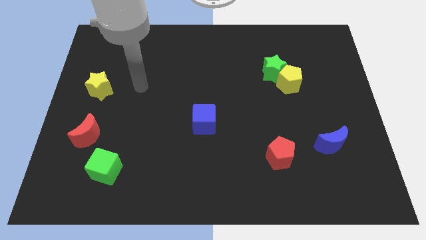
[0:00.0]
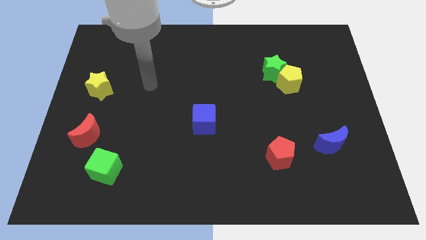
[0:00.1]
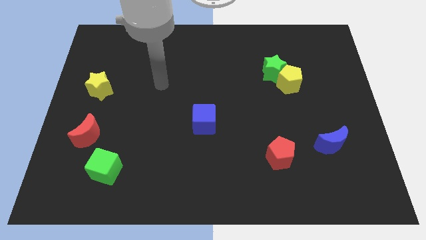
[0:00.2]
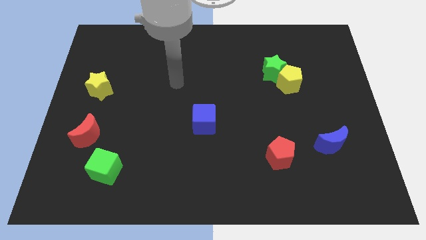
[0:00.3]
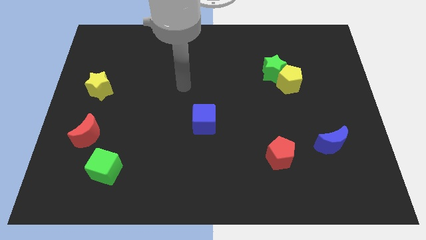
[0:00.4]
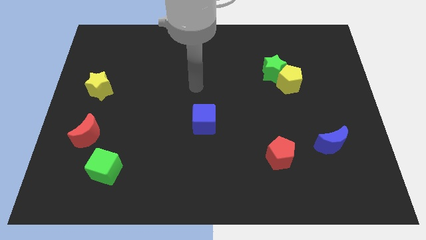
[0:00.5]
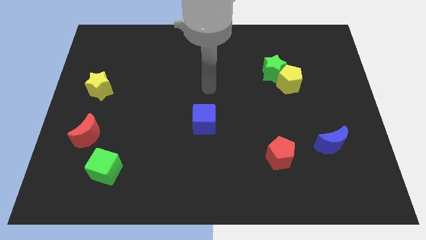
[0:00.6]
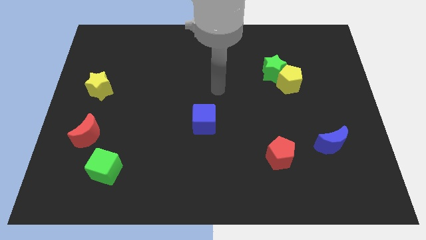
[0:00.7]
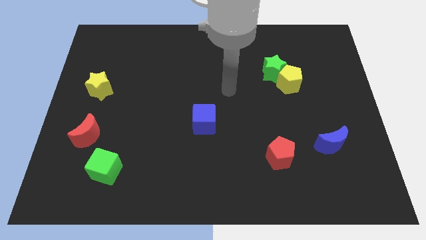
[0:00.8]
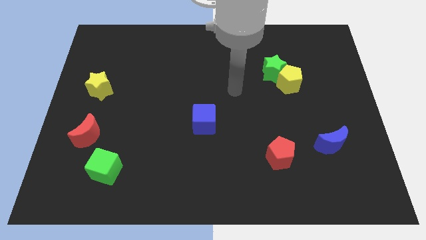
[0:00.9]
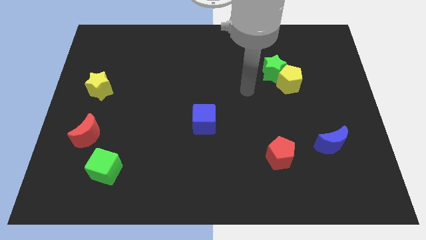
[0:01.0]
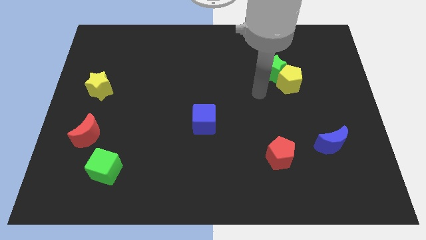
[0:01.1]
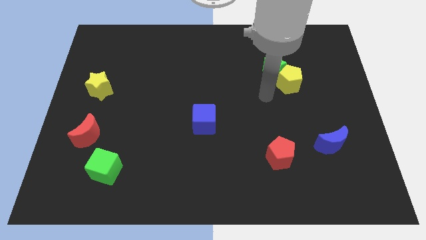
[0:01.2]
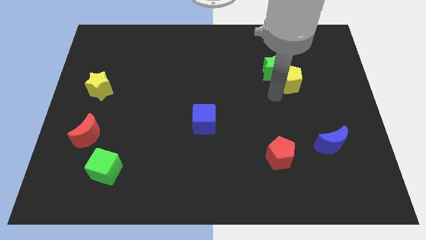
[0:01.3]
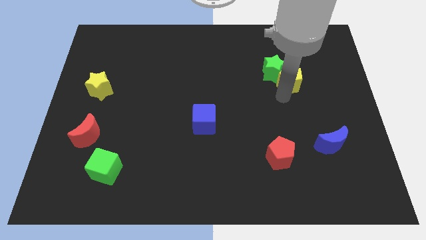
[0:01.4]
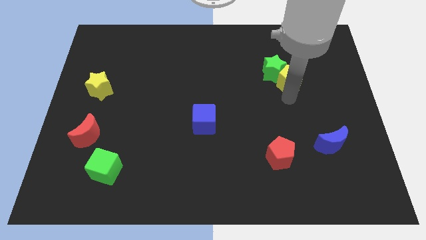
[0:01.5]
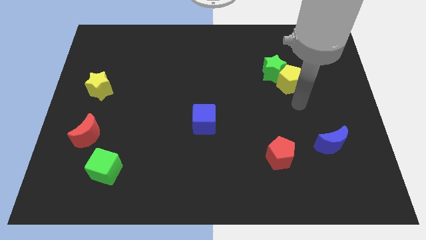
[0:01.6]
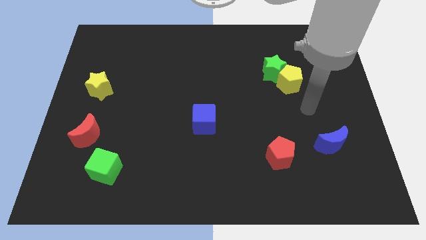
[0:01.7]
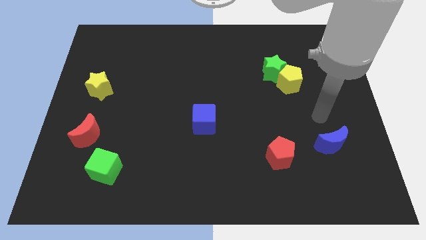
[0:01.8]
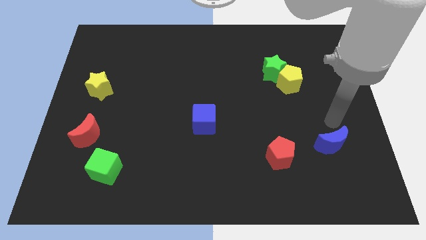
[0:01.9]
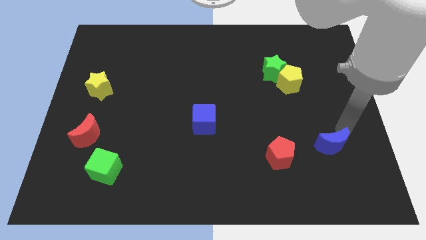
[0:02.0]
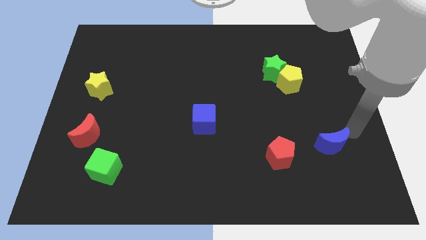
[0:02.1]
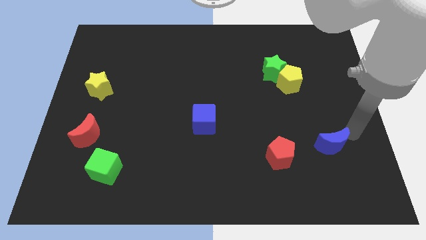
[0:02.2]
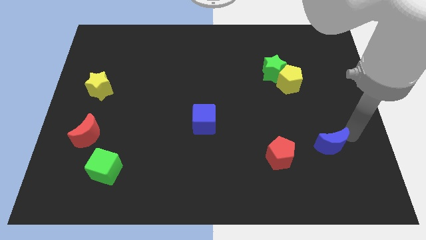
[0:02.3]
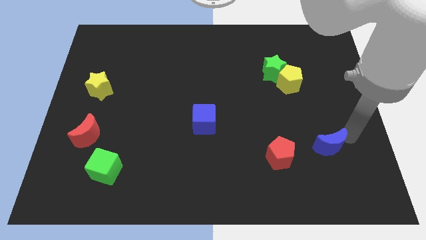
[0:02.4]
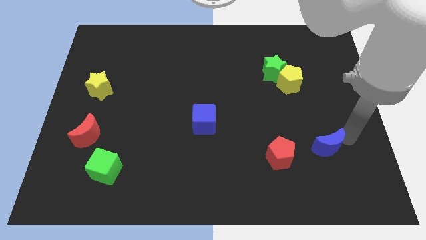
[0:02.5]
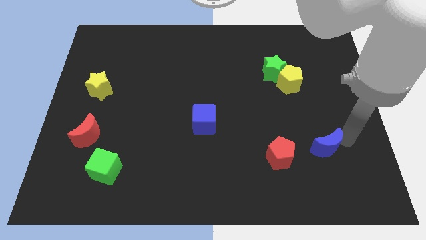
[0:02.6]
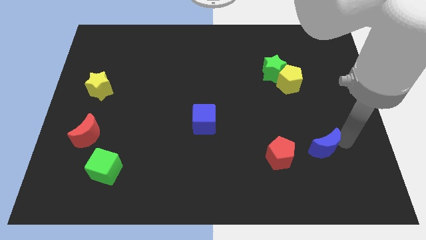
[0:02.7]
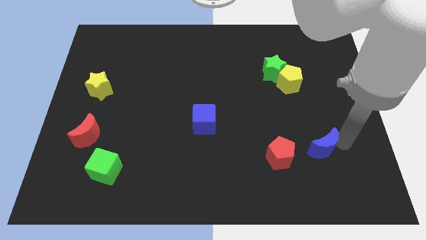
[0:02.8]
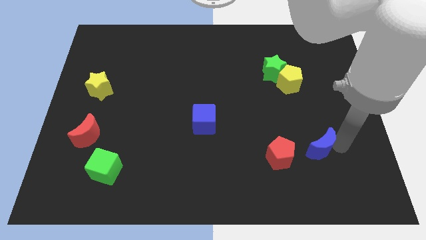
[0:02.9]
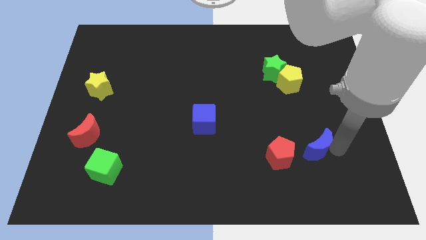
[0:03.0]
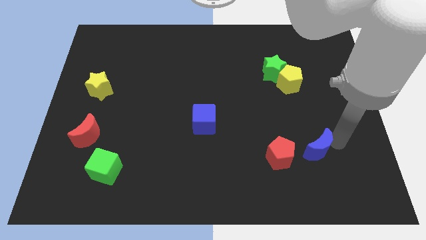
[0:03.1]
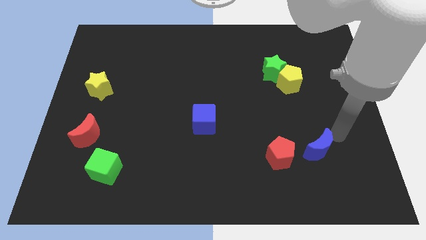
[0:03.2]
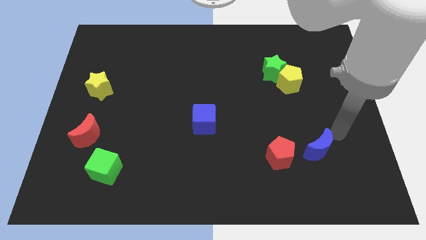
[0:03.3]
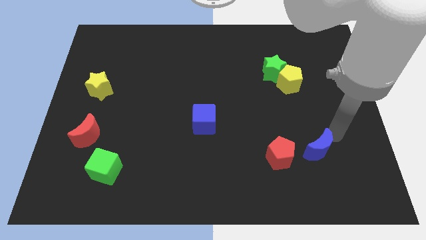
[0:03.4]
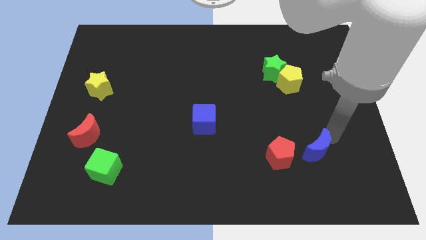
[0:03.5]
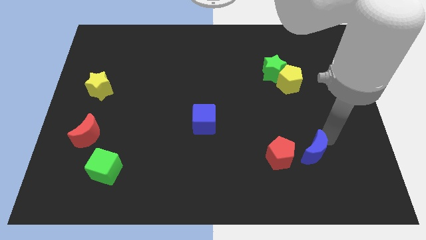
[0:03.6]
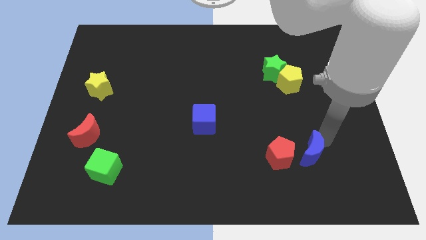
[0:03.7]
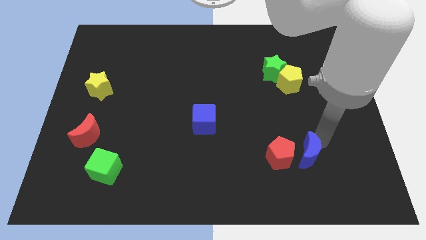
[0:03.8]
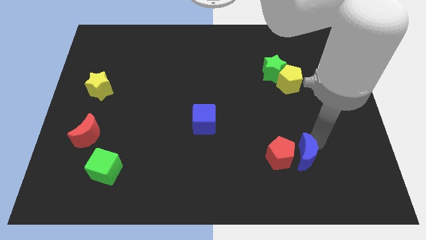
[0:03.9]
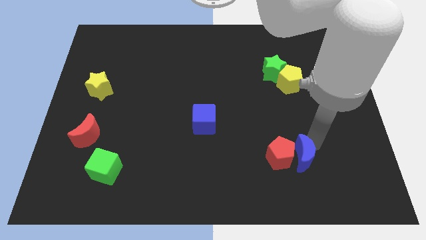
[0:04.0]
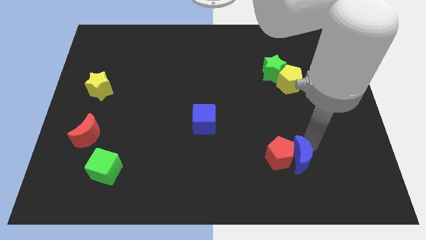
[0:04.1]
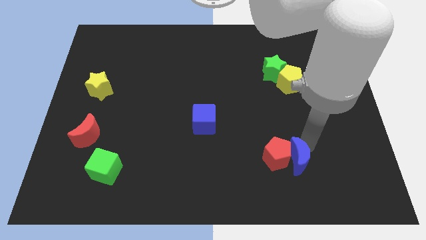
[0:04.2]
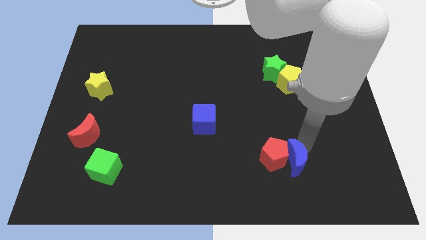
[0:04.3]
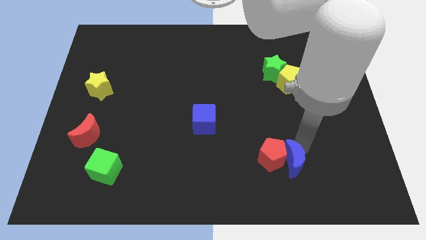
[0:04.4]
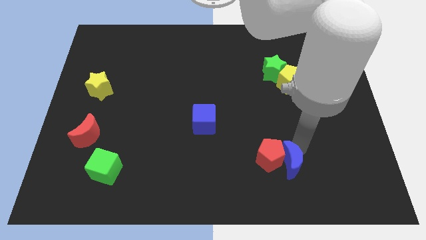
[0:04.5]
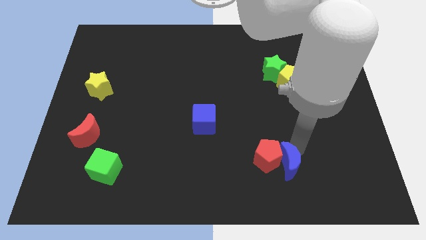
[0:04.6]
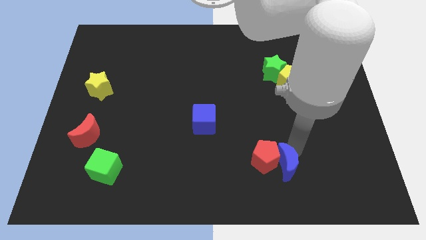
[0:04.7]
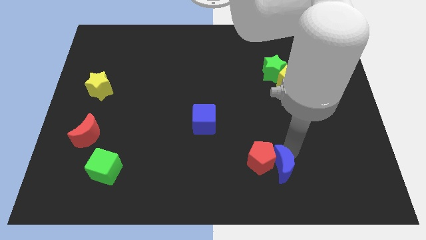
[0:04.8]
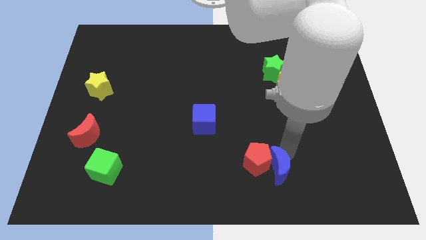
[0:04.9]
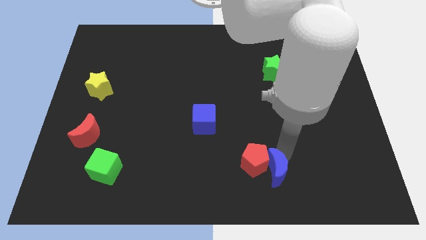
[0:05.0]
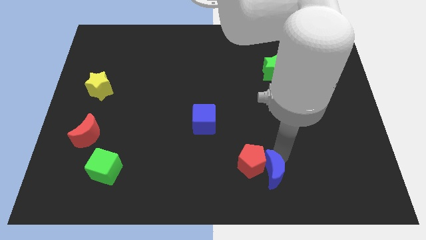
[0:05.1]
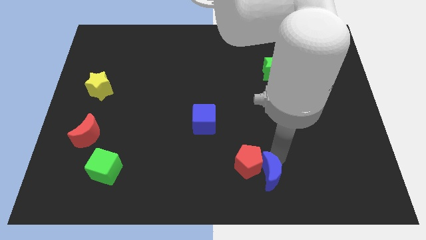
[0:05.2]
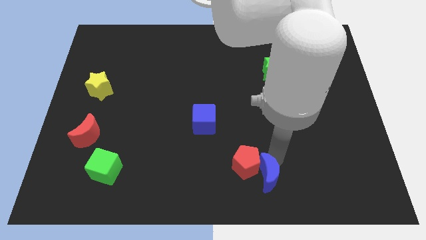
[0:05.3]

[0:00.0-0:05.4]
slide the blue moon to the bottom side

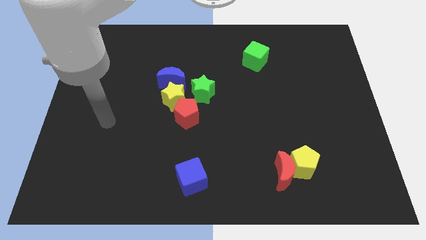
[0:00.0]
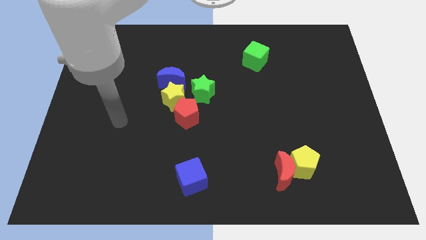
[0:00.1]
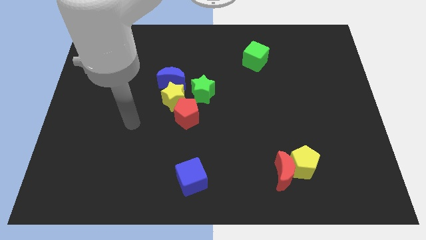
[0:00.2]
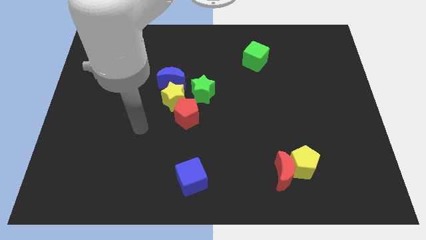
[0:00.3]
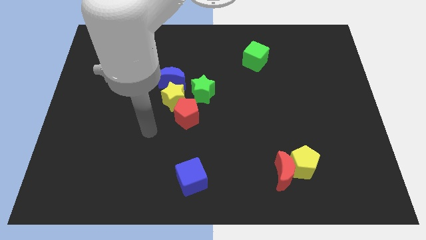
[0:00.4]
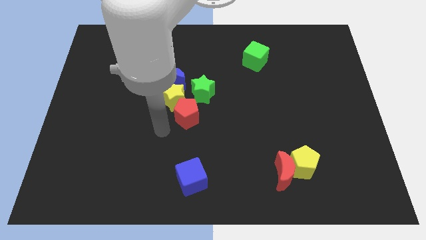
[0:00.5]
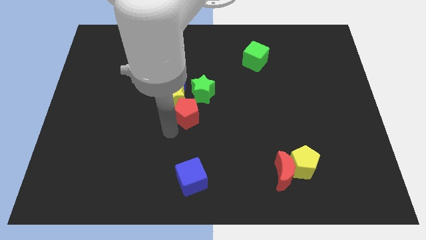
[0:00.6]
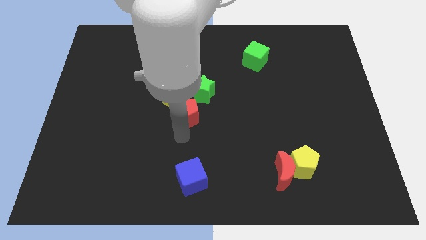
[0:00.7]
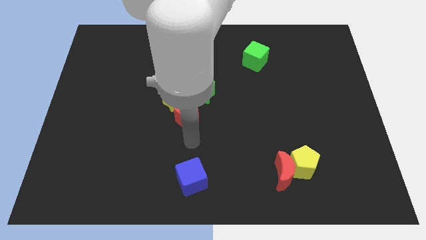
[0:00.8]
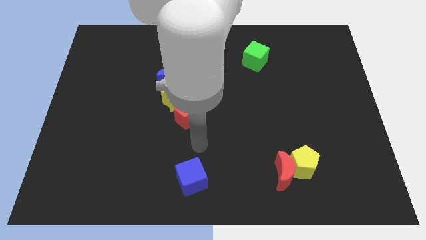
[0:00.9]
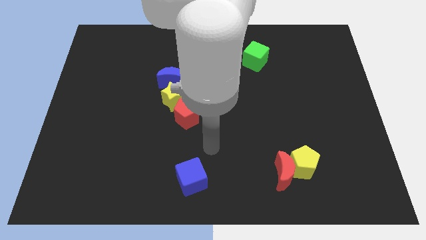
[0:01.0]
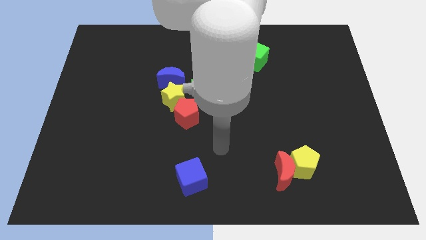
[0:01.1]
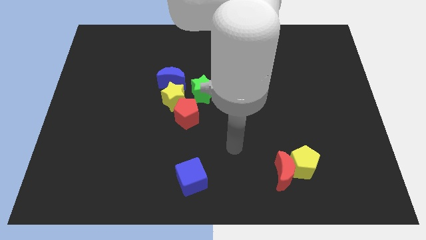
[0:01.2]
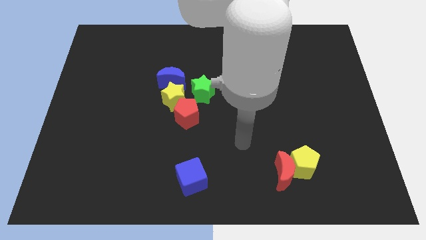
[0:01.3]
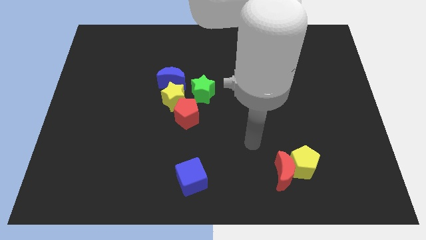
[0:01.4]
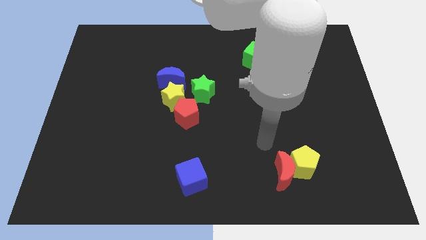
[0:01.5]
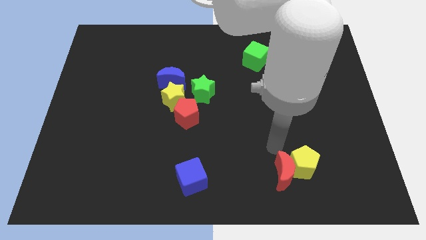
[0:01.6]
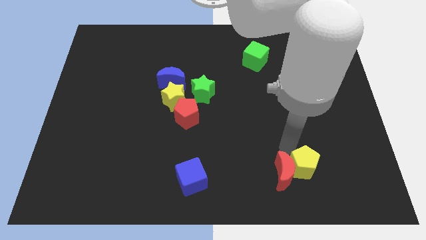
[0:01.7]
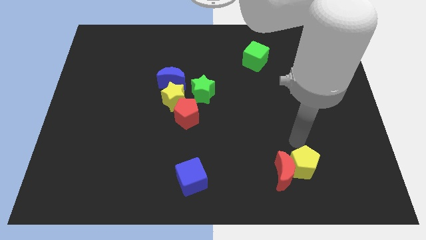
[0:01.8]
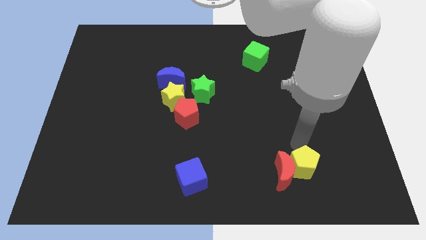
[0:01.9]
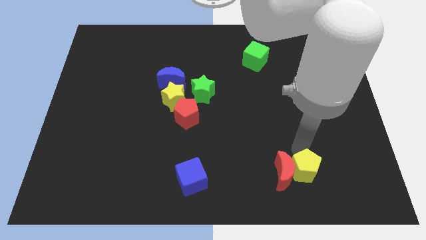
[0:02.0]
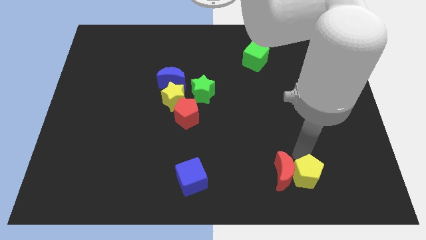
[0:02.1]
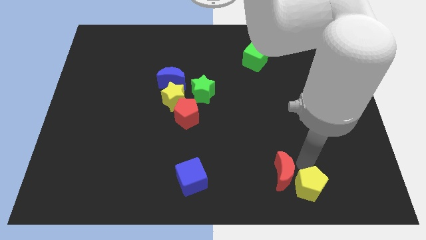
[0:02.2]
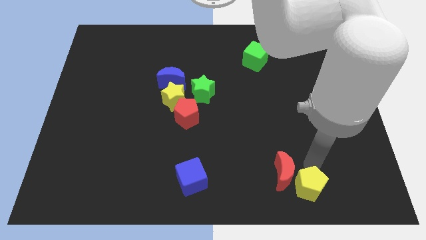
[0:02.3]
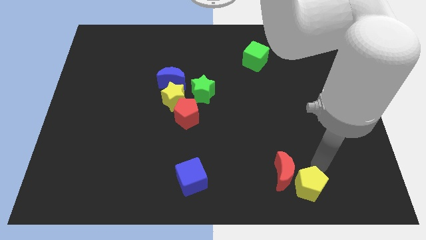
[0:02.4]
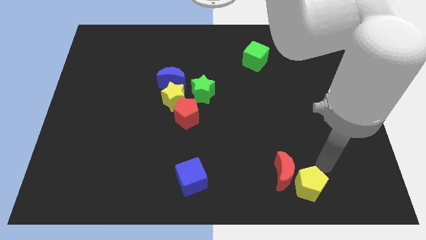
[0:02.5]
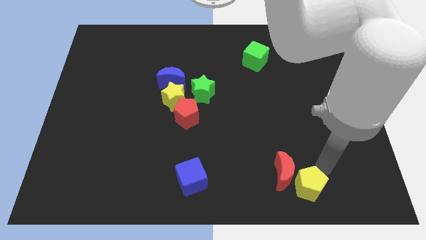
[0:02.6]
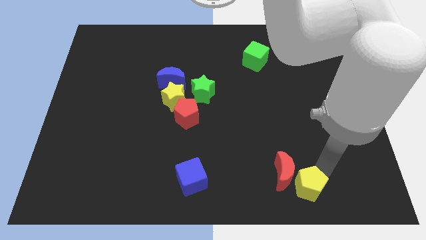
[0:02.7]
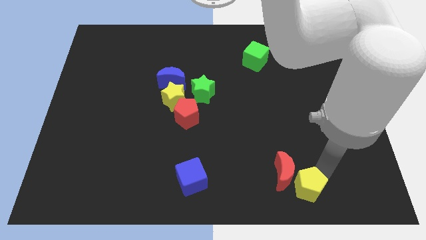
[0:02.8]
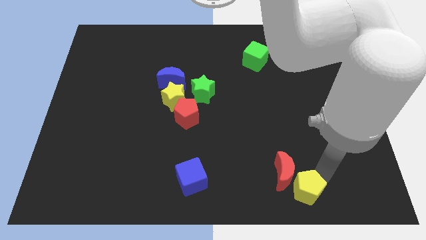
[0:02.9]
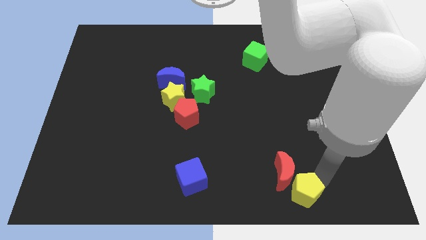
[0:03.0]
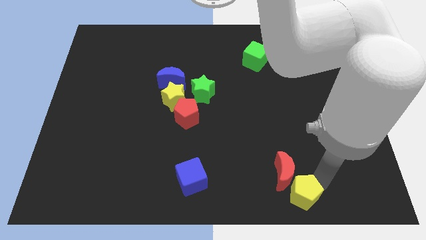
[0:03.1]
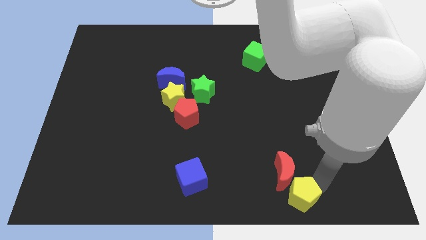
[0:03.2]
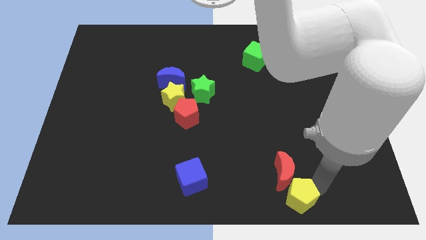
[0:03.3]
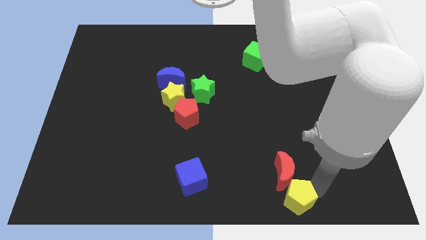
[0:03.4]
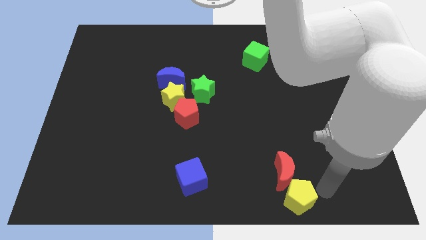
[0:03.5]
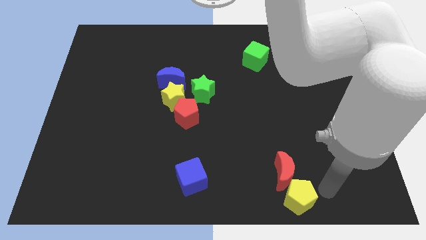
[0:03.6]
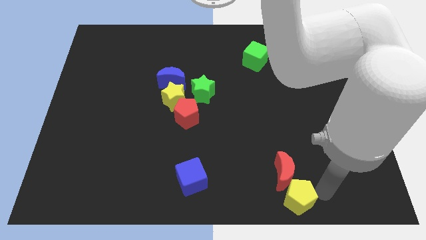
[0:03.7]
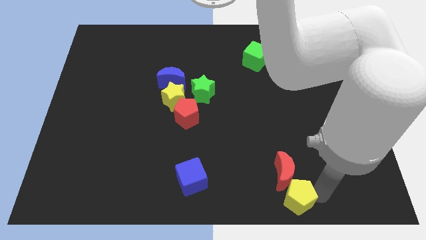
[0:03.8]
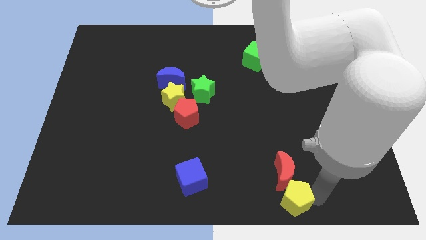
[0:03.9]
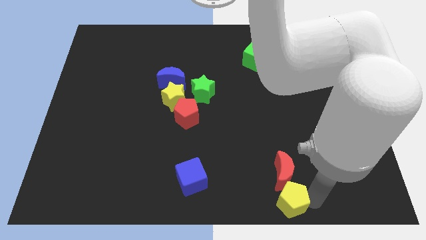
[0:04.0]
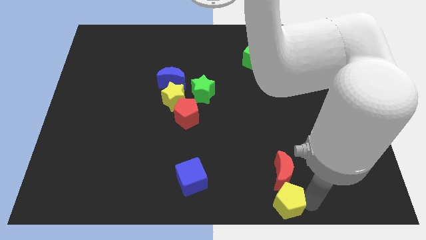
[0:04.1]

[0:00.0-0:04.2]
push the yellow pentagon to the bottom
